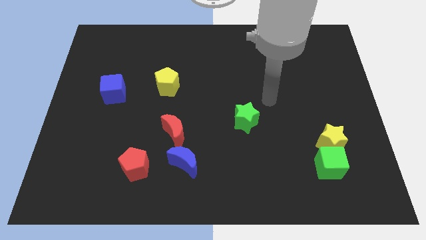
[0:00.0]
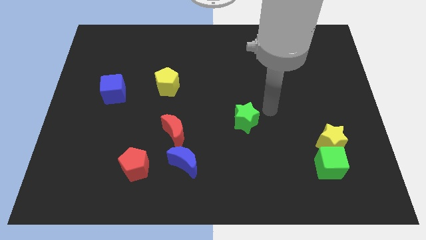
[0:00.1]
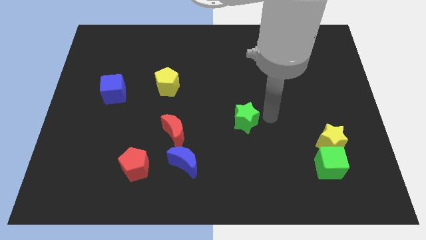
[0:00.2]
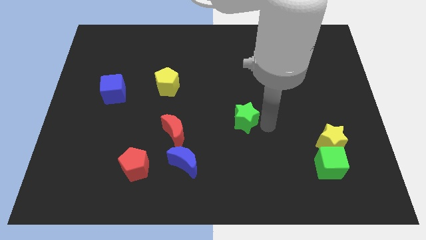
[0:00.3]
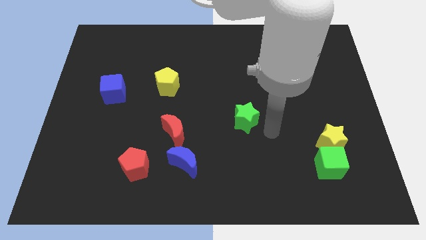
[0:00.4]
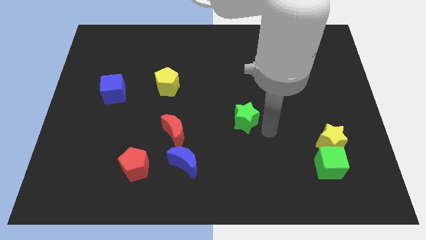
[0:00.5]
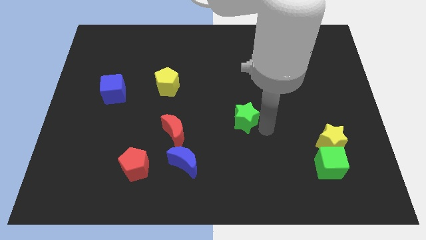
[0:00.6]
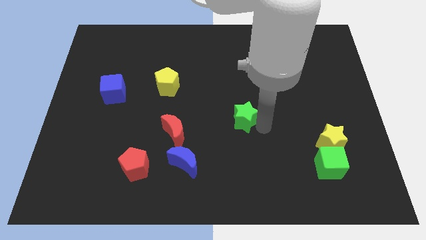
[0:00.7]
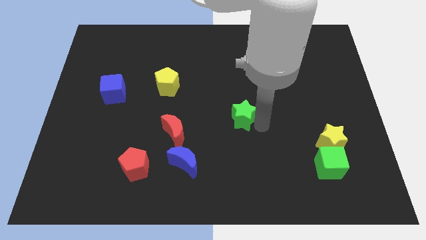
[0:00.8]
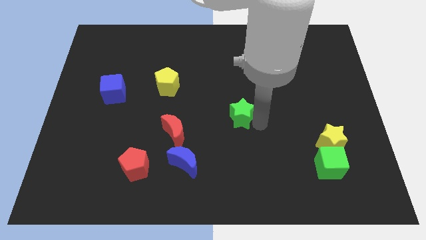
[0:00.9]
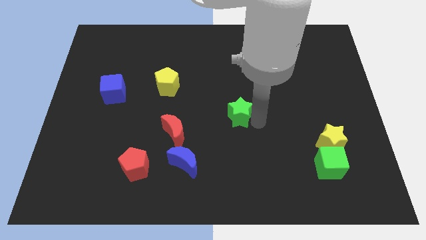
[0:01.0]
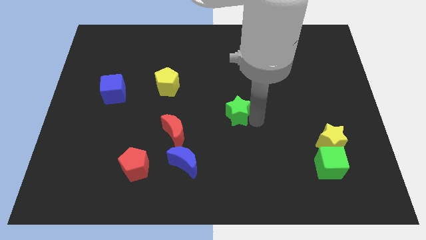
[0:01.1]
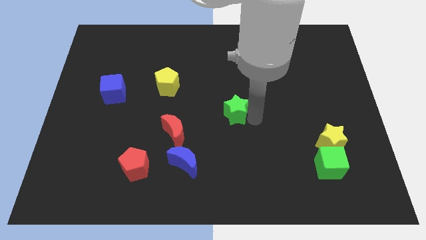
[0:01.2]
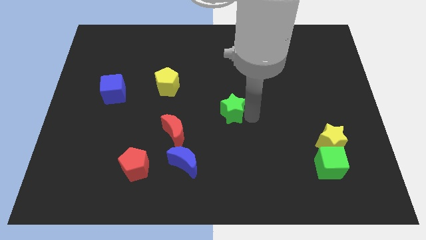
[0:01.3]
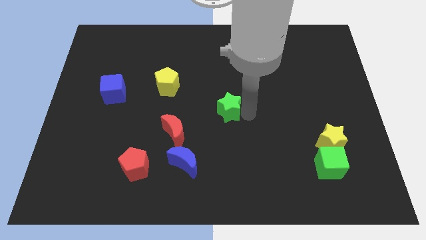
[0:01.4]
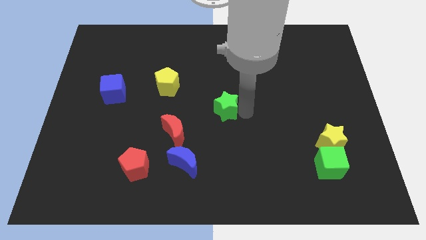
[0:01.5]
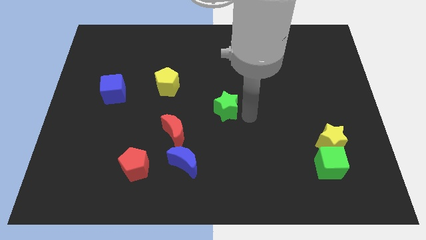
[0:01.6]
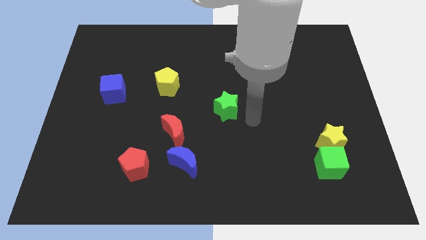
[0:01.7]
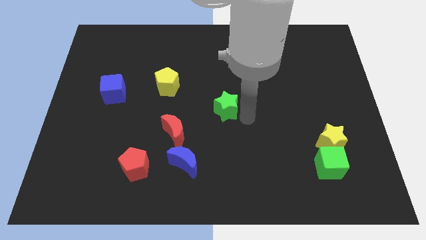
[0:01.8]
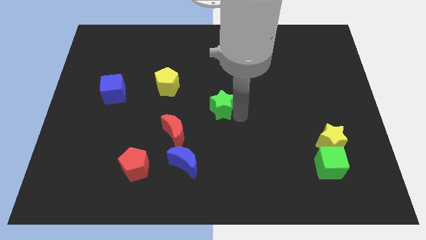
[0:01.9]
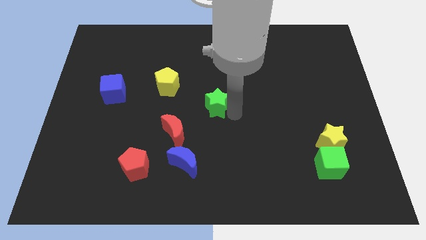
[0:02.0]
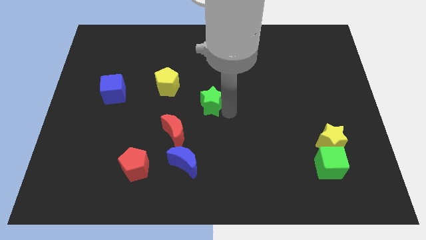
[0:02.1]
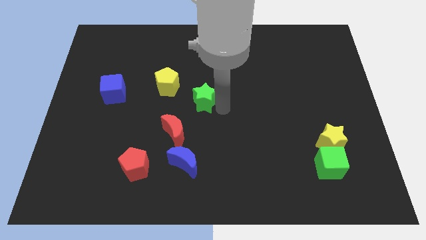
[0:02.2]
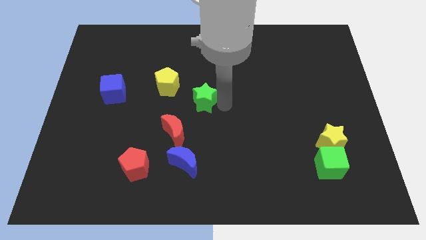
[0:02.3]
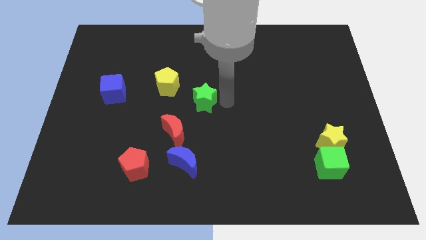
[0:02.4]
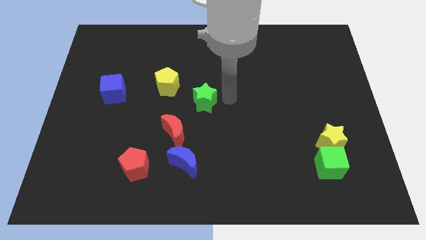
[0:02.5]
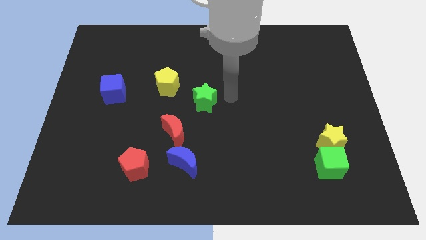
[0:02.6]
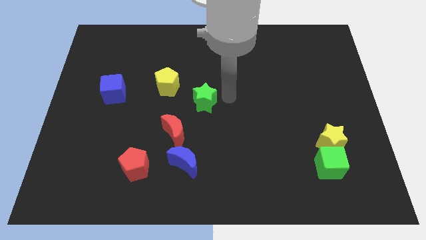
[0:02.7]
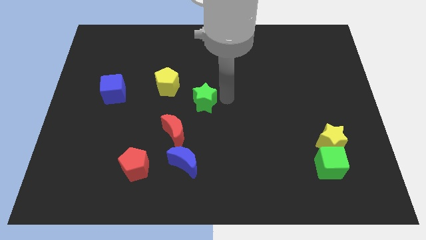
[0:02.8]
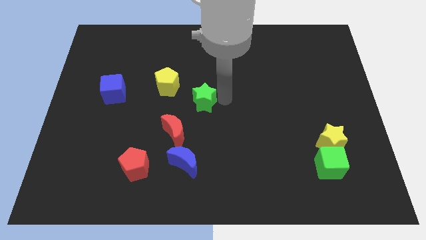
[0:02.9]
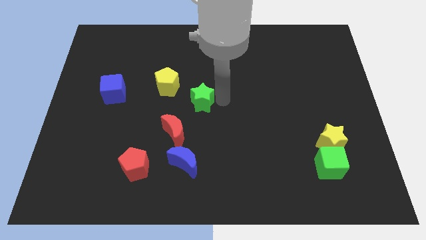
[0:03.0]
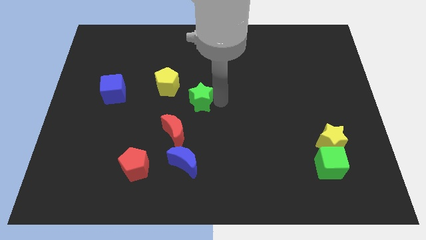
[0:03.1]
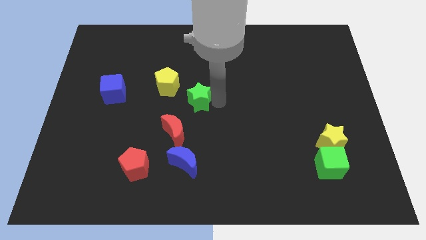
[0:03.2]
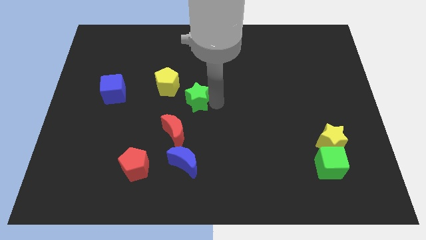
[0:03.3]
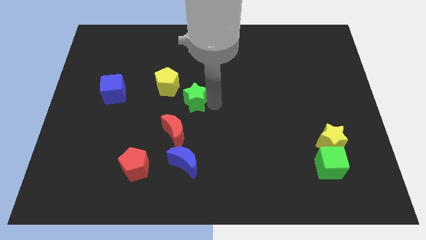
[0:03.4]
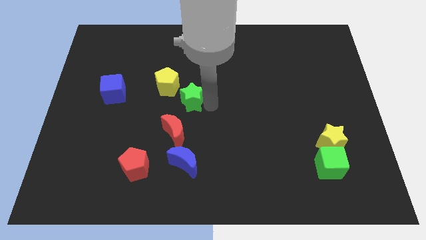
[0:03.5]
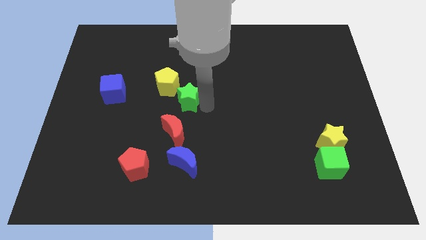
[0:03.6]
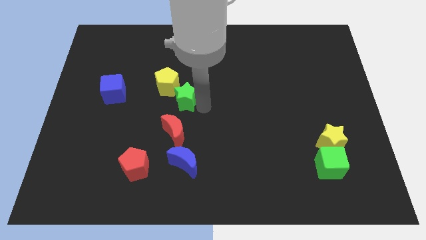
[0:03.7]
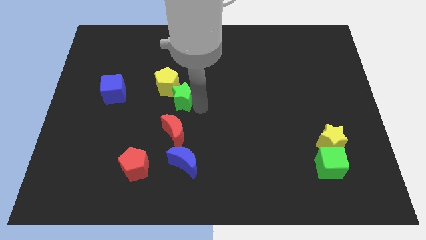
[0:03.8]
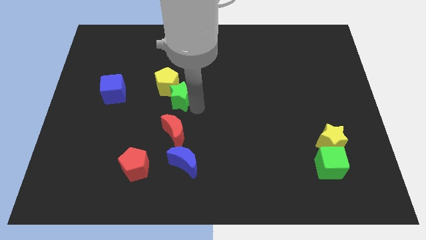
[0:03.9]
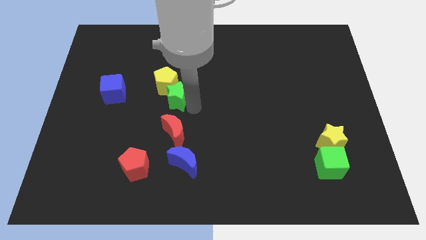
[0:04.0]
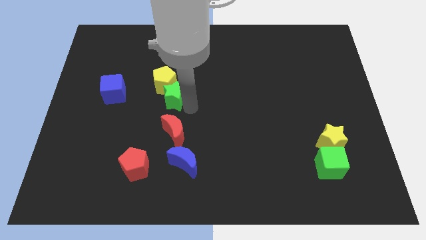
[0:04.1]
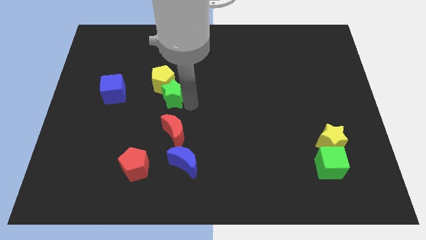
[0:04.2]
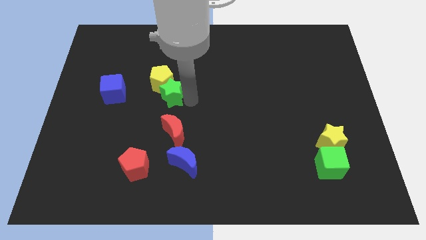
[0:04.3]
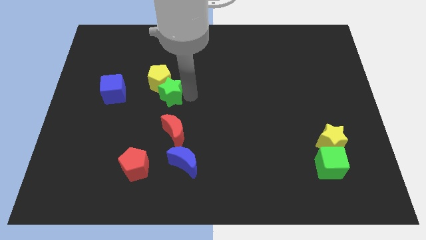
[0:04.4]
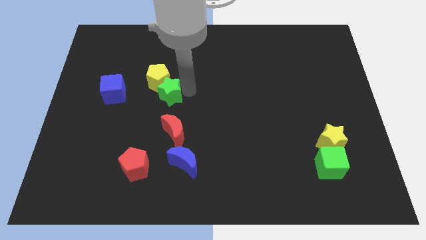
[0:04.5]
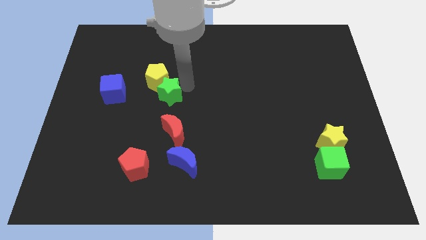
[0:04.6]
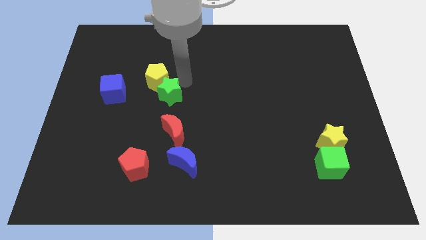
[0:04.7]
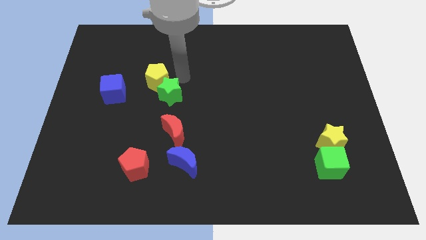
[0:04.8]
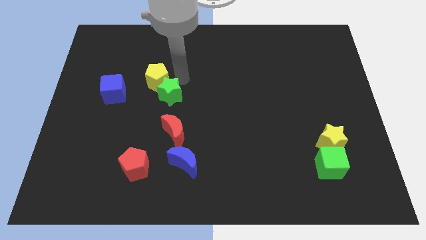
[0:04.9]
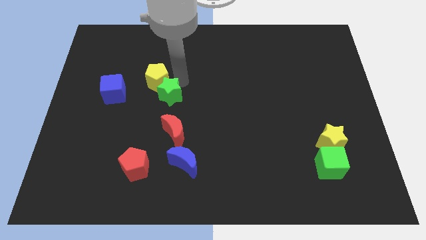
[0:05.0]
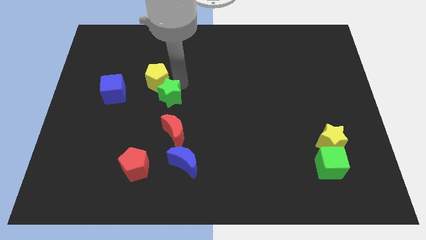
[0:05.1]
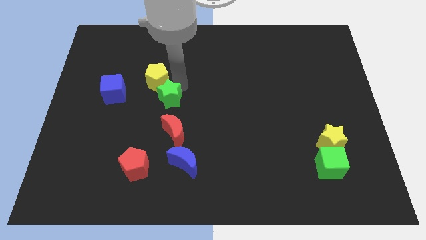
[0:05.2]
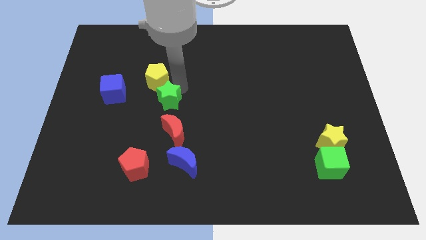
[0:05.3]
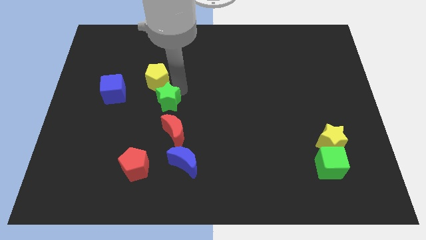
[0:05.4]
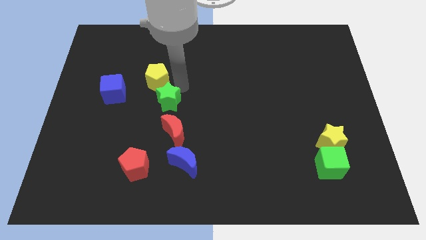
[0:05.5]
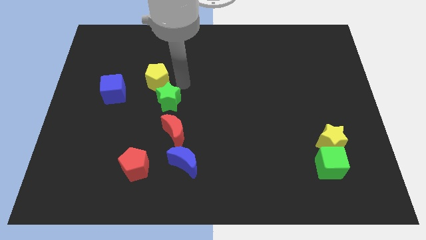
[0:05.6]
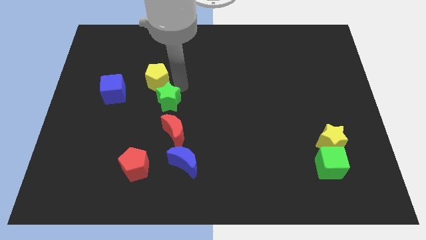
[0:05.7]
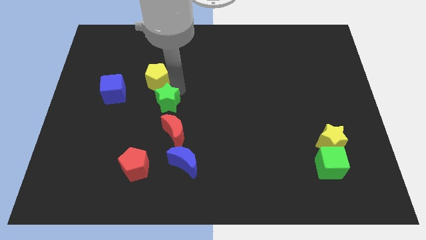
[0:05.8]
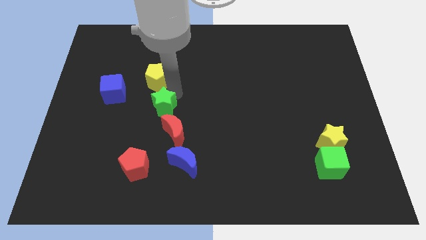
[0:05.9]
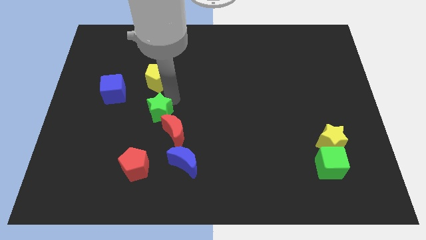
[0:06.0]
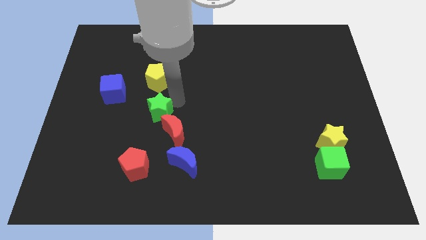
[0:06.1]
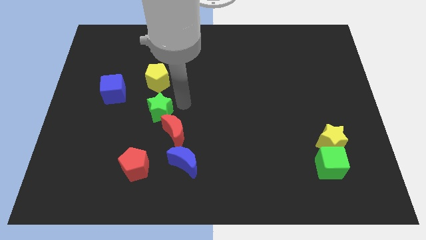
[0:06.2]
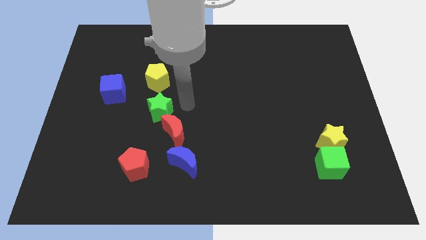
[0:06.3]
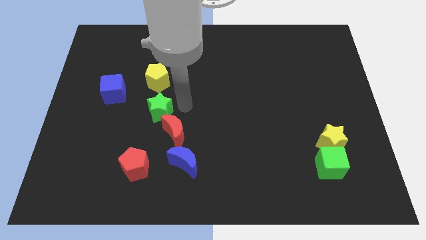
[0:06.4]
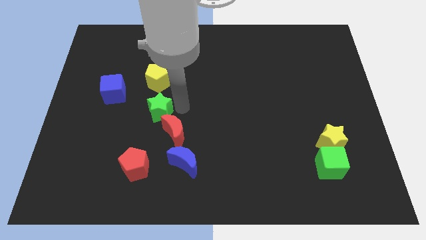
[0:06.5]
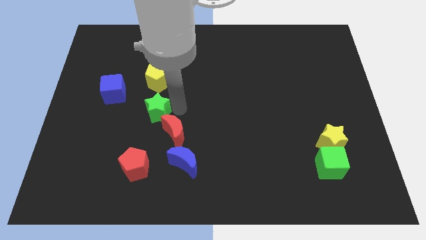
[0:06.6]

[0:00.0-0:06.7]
slide the green star left

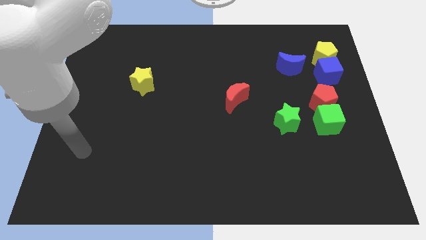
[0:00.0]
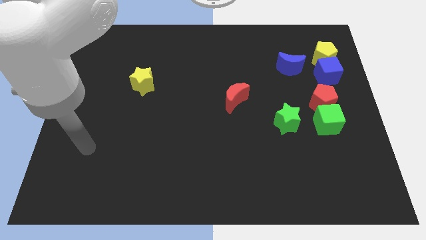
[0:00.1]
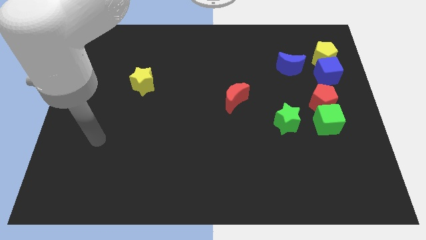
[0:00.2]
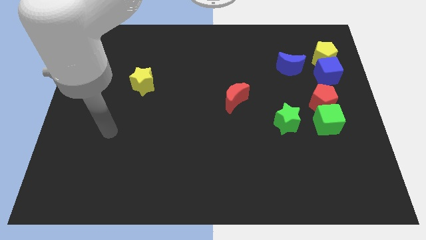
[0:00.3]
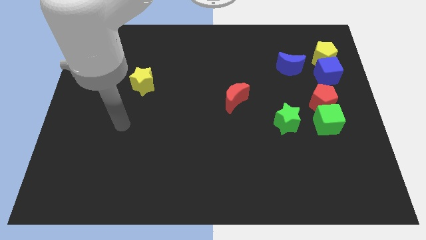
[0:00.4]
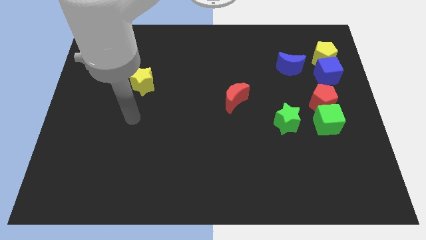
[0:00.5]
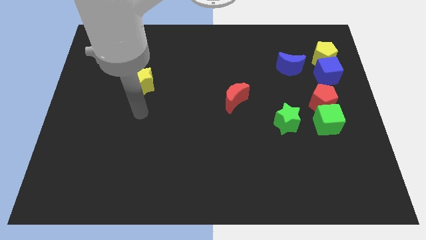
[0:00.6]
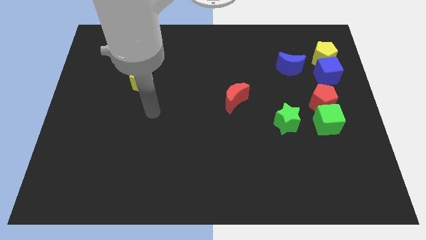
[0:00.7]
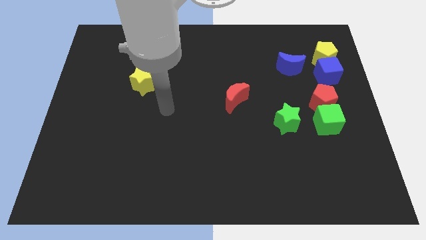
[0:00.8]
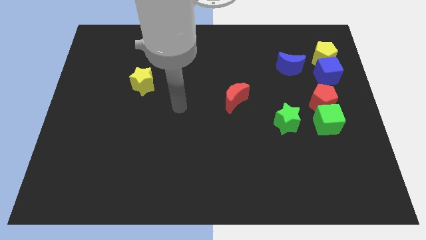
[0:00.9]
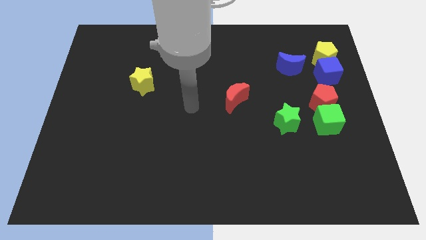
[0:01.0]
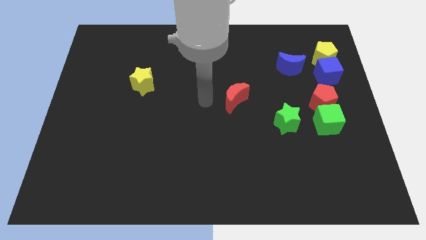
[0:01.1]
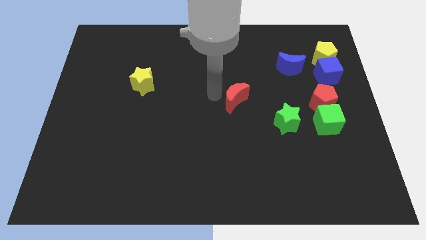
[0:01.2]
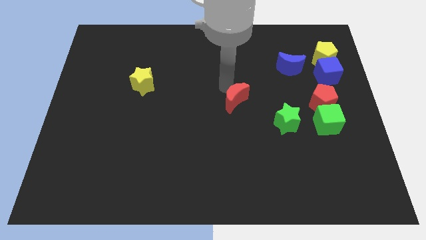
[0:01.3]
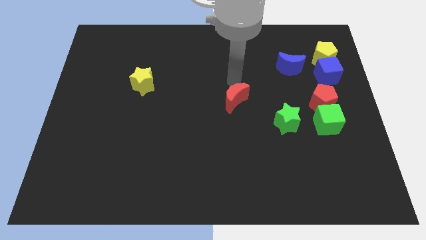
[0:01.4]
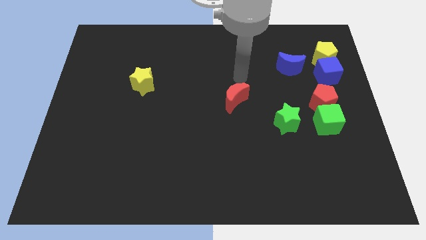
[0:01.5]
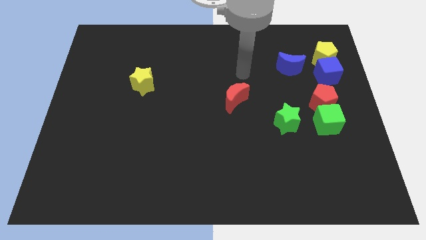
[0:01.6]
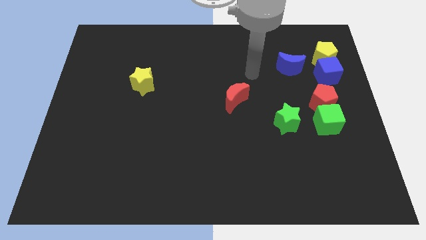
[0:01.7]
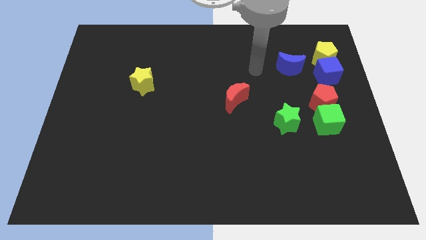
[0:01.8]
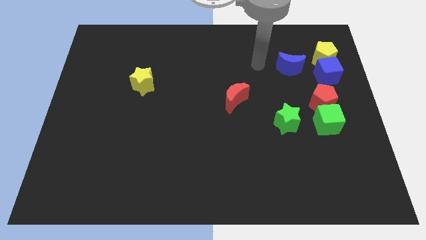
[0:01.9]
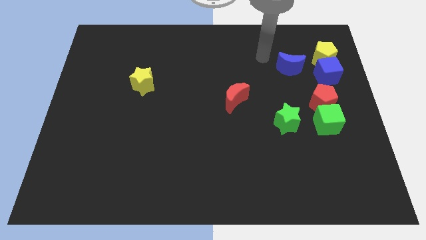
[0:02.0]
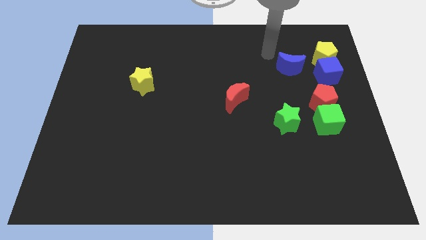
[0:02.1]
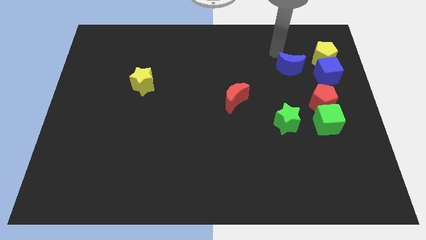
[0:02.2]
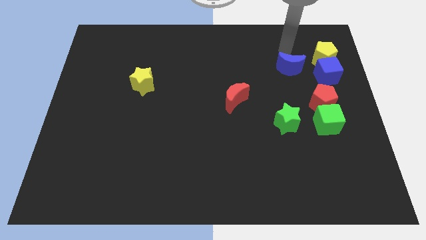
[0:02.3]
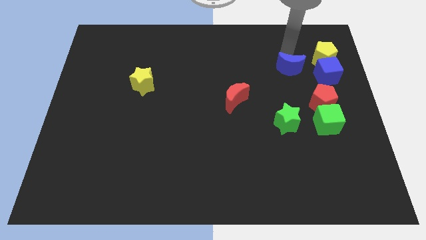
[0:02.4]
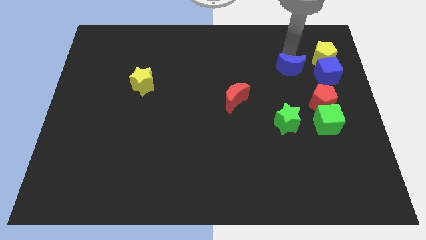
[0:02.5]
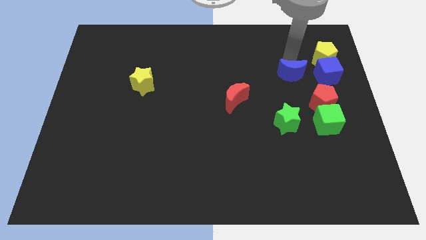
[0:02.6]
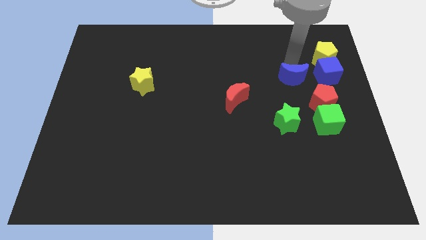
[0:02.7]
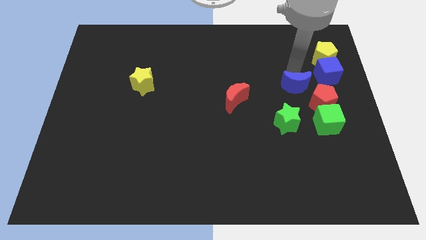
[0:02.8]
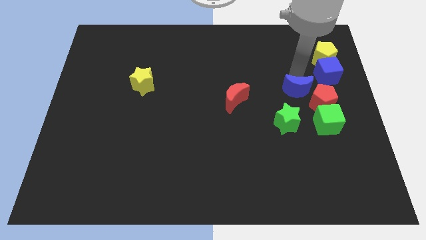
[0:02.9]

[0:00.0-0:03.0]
slide the blue moon down a little bit
